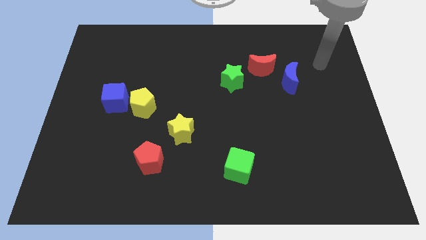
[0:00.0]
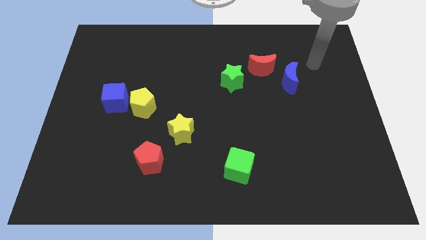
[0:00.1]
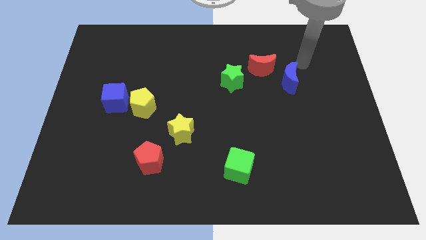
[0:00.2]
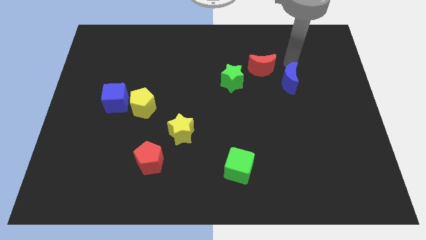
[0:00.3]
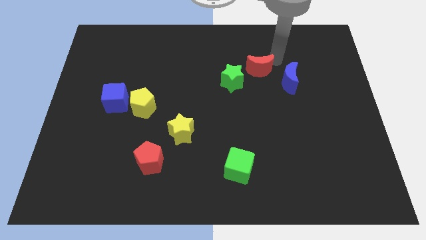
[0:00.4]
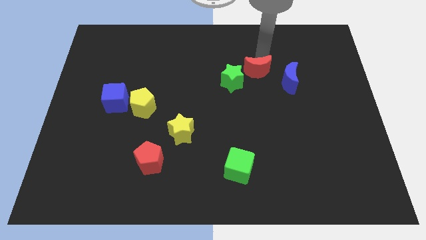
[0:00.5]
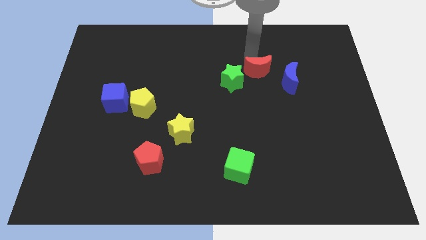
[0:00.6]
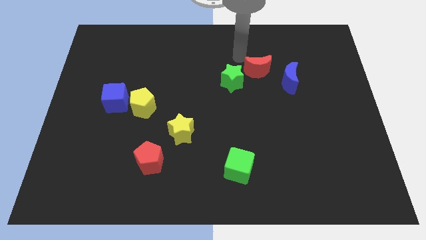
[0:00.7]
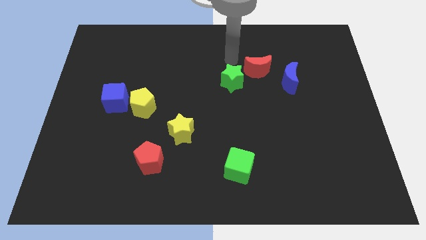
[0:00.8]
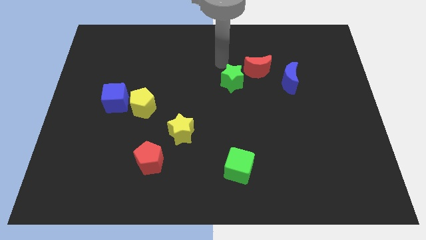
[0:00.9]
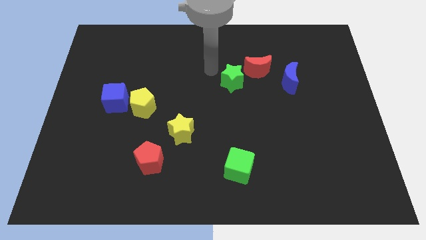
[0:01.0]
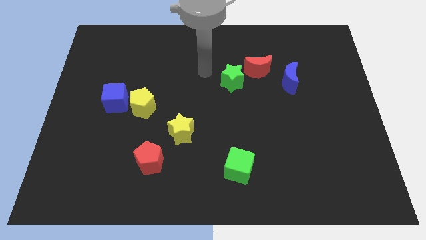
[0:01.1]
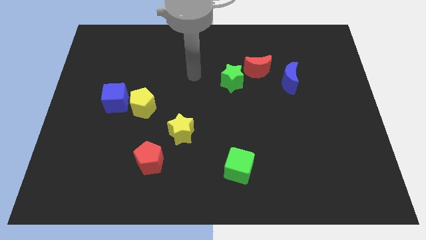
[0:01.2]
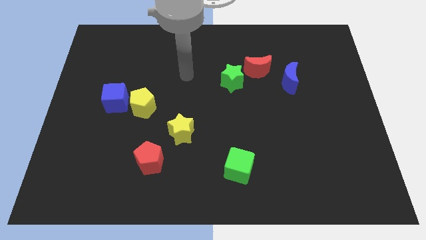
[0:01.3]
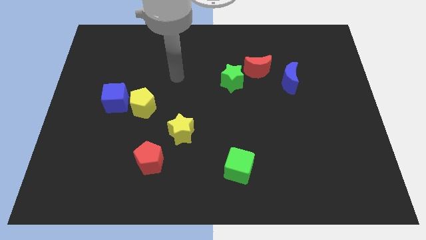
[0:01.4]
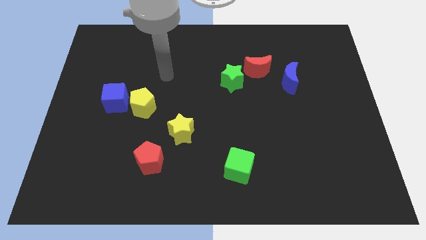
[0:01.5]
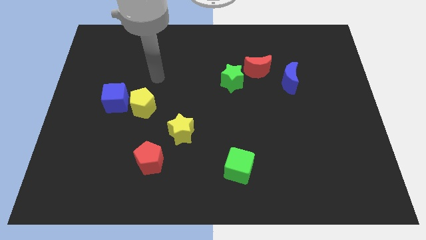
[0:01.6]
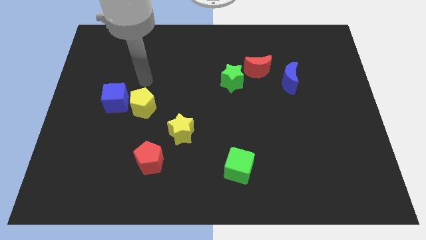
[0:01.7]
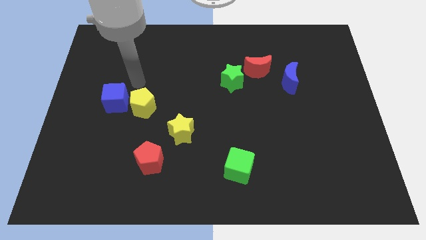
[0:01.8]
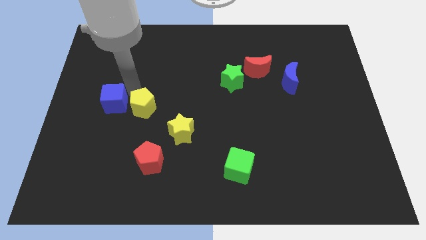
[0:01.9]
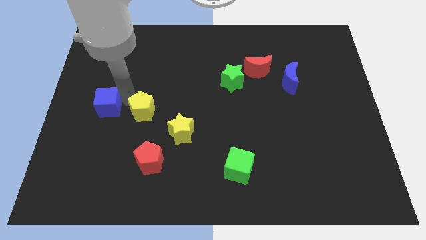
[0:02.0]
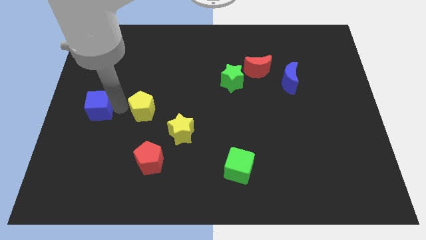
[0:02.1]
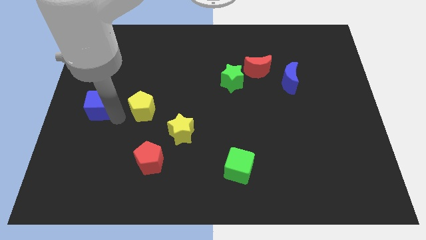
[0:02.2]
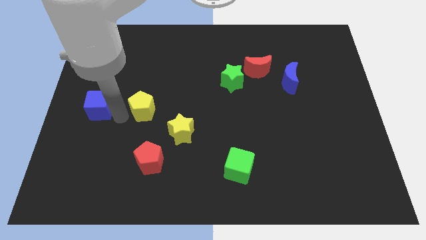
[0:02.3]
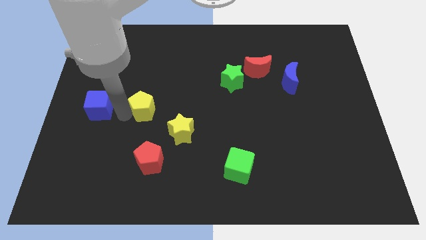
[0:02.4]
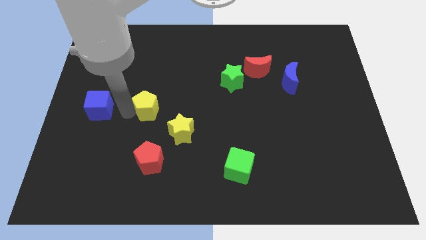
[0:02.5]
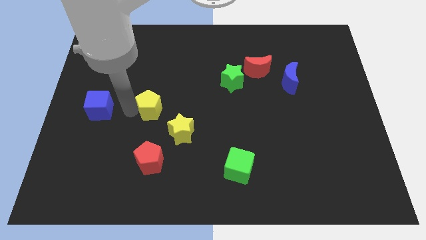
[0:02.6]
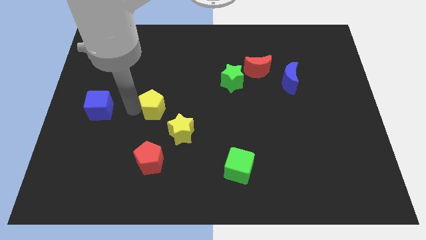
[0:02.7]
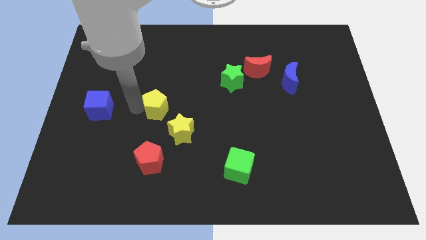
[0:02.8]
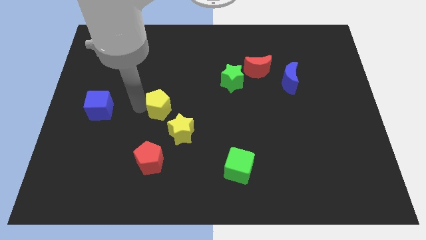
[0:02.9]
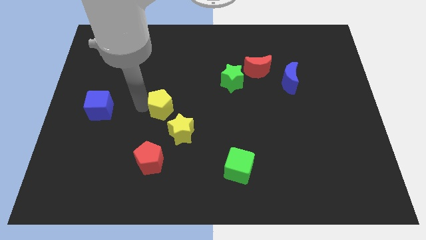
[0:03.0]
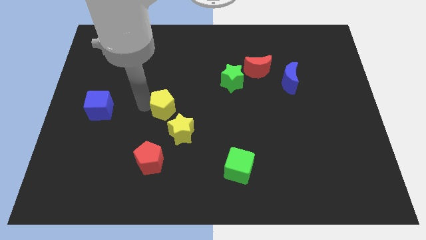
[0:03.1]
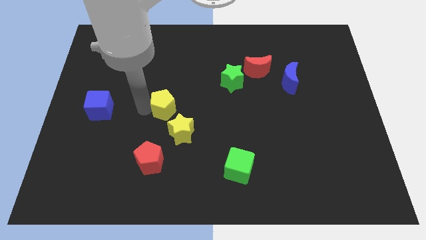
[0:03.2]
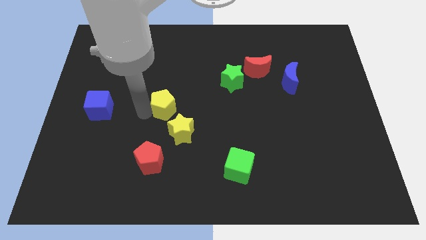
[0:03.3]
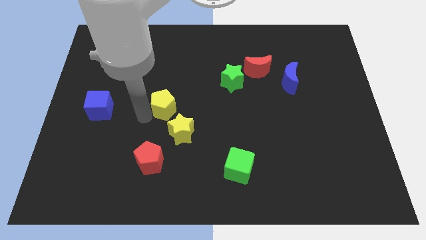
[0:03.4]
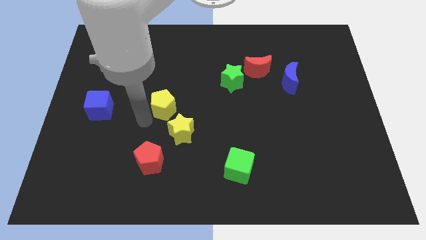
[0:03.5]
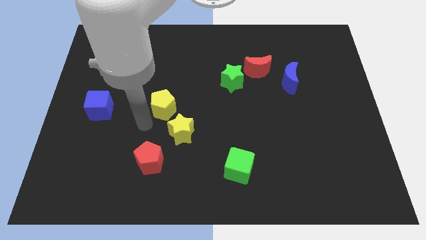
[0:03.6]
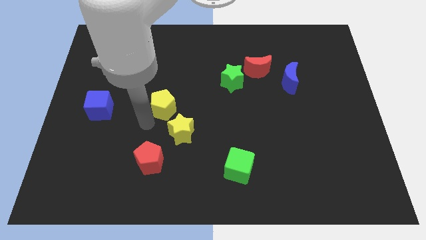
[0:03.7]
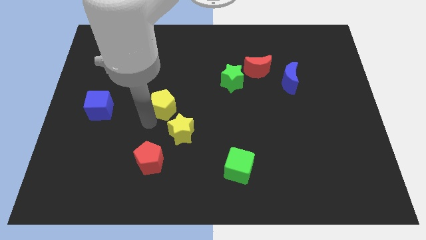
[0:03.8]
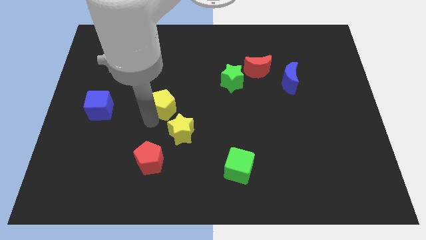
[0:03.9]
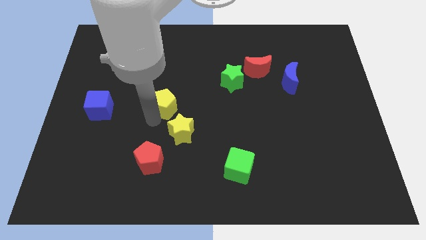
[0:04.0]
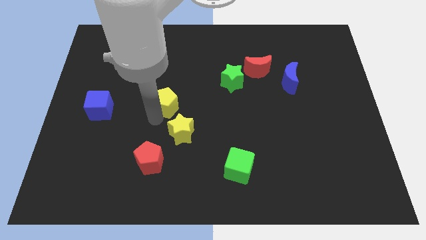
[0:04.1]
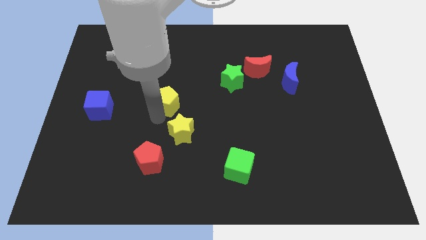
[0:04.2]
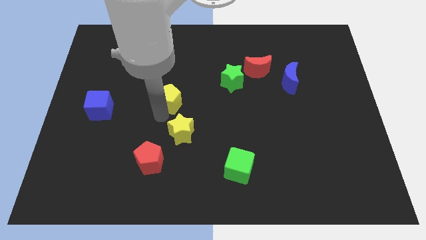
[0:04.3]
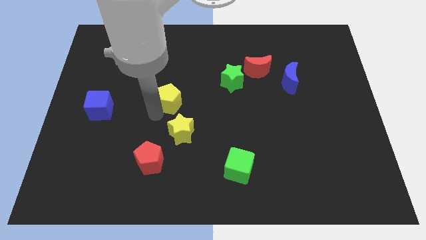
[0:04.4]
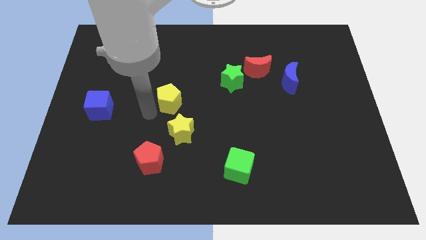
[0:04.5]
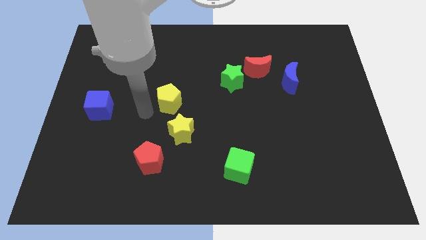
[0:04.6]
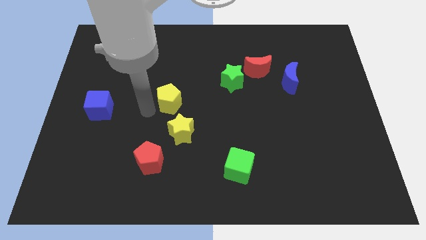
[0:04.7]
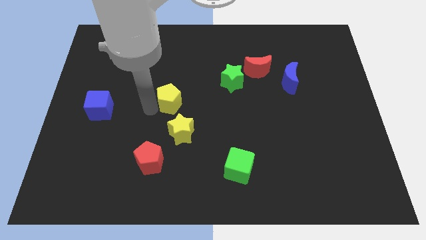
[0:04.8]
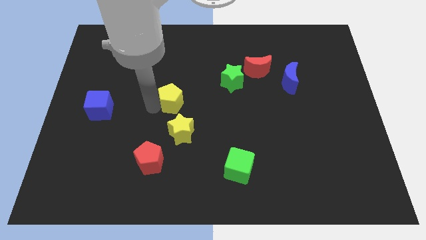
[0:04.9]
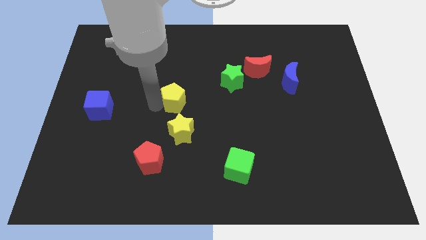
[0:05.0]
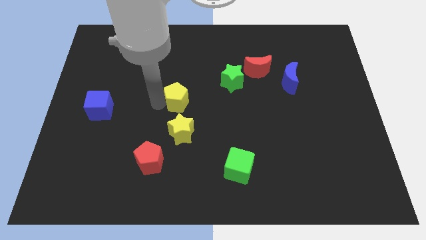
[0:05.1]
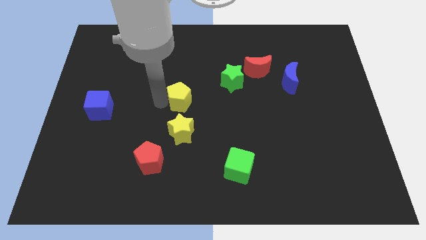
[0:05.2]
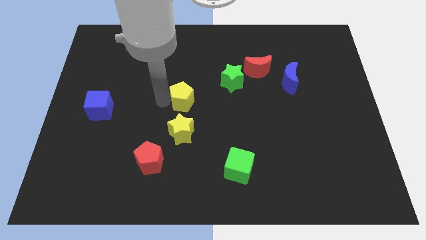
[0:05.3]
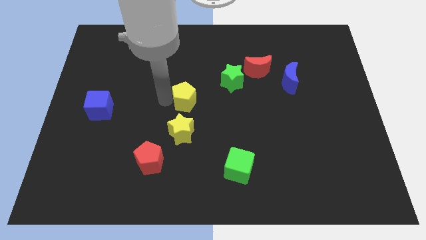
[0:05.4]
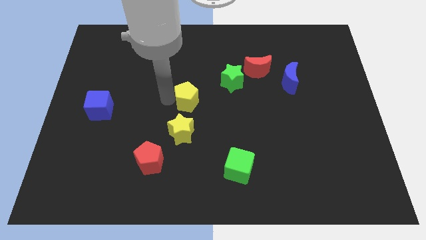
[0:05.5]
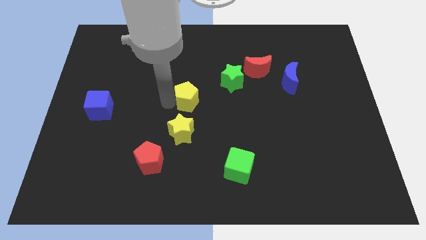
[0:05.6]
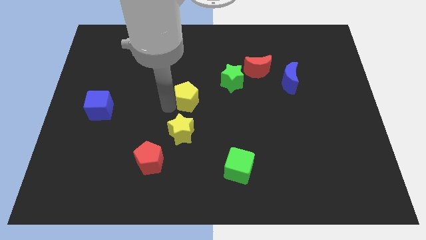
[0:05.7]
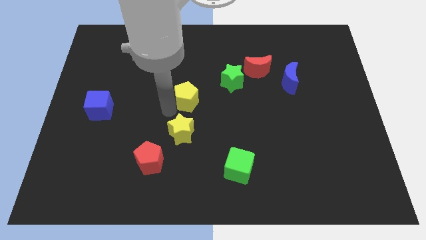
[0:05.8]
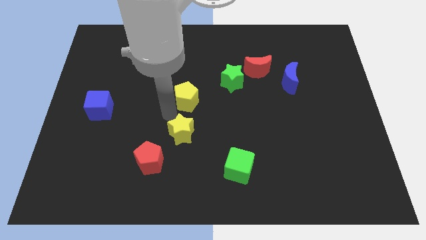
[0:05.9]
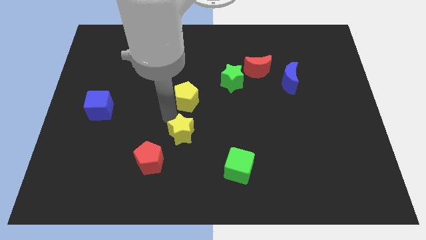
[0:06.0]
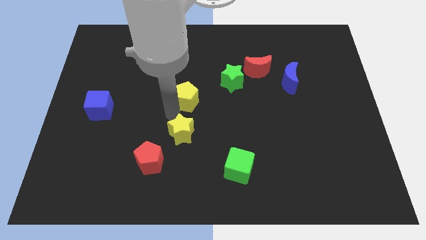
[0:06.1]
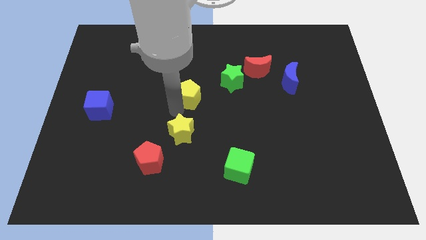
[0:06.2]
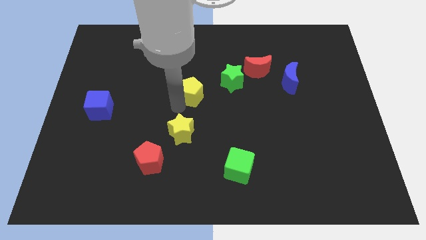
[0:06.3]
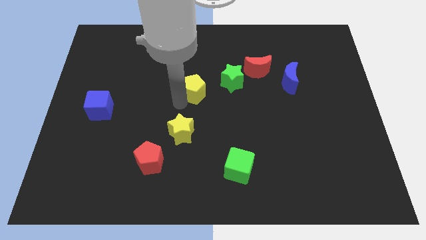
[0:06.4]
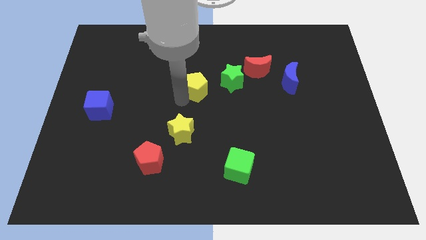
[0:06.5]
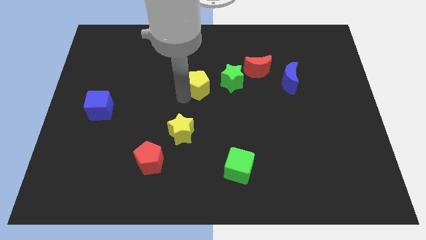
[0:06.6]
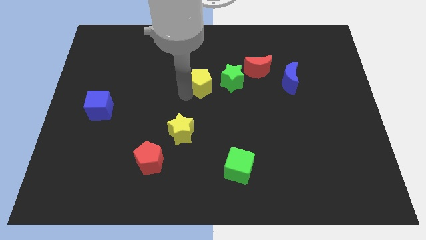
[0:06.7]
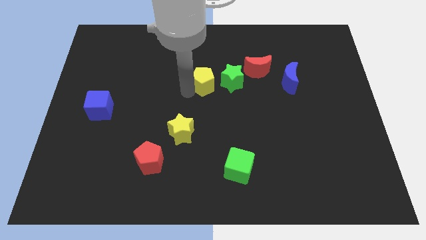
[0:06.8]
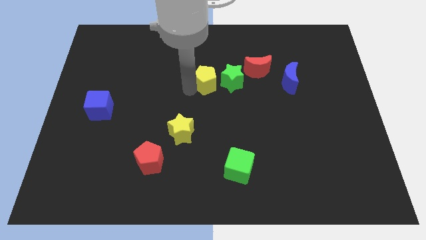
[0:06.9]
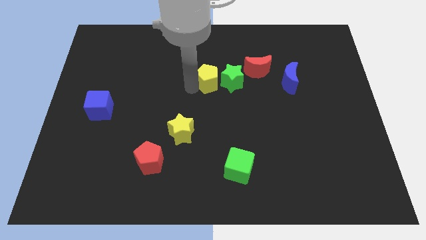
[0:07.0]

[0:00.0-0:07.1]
move the yellow pentagon towards the green star
